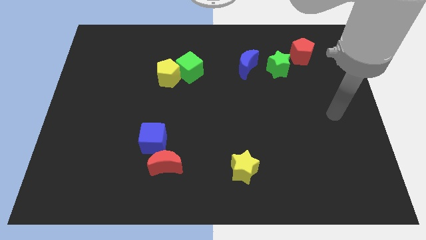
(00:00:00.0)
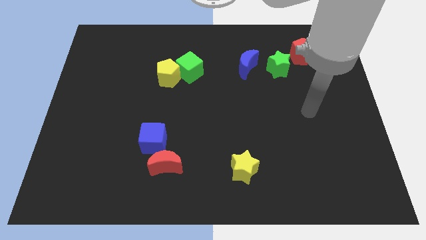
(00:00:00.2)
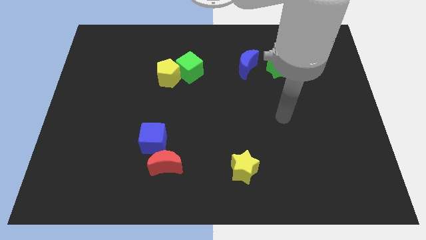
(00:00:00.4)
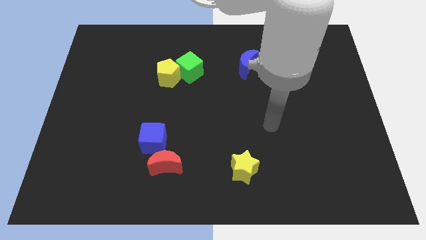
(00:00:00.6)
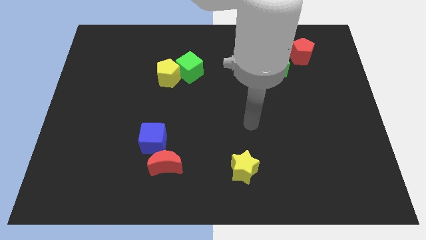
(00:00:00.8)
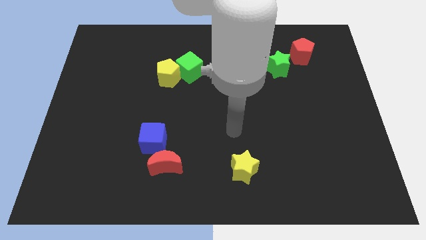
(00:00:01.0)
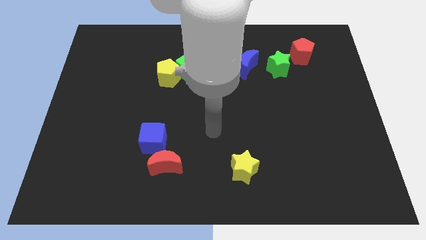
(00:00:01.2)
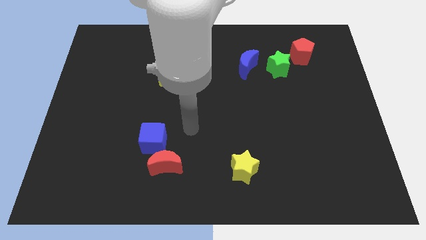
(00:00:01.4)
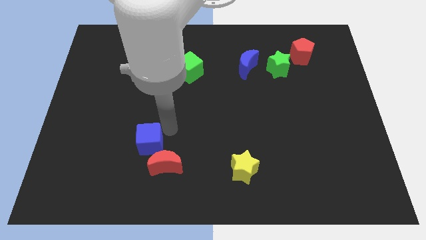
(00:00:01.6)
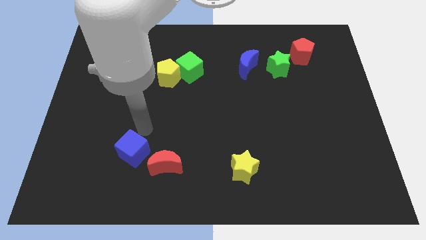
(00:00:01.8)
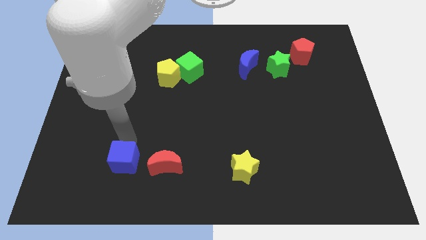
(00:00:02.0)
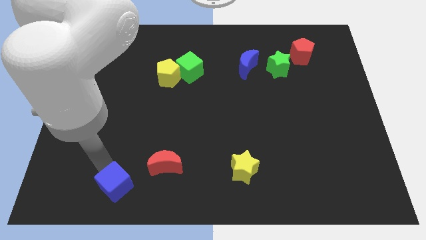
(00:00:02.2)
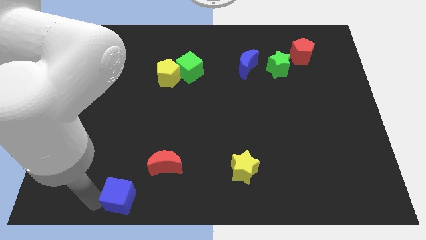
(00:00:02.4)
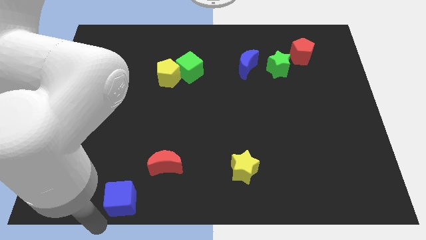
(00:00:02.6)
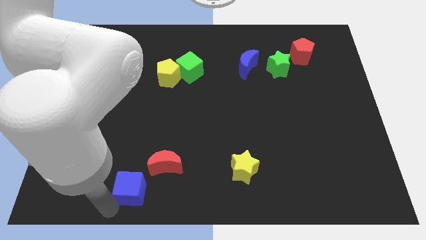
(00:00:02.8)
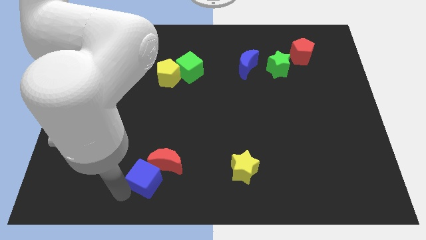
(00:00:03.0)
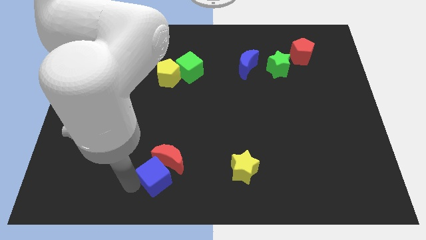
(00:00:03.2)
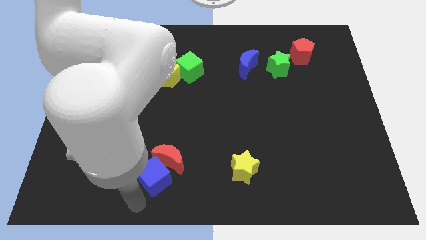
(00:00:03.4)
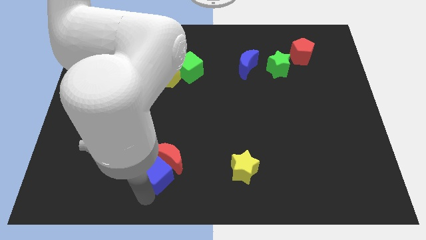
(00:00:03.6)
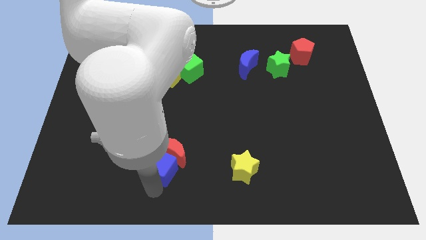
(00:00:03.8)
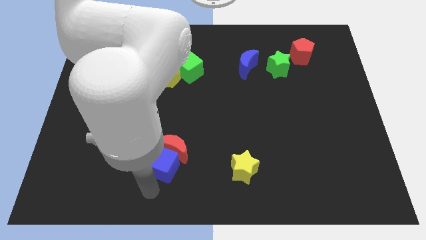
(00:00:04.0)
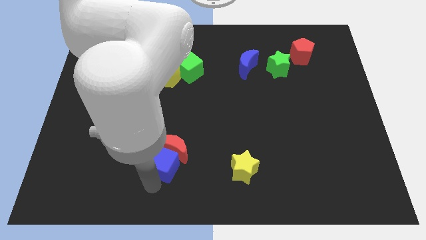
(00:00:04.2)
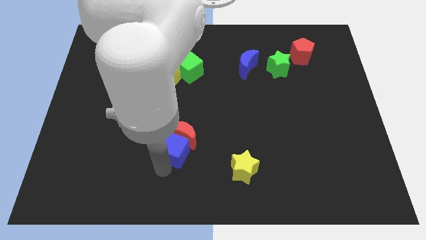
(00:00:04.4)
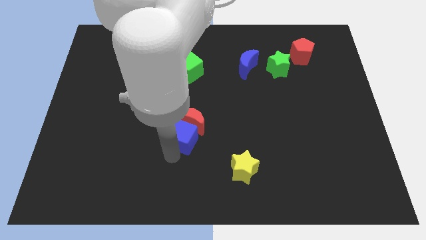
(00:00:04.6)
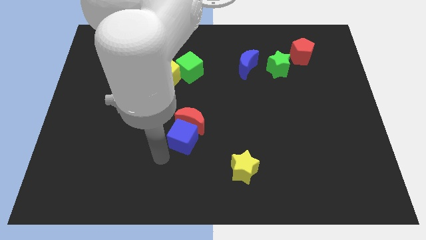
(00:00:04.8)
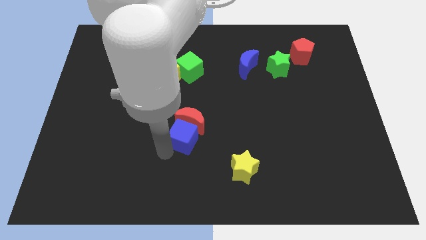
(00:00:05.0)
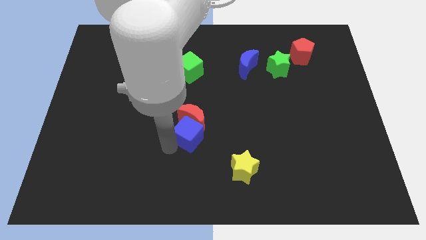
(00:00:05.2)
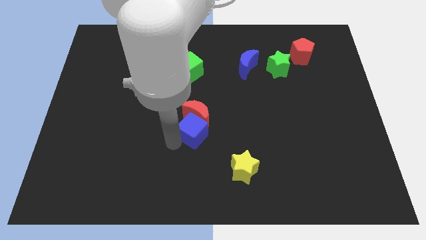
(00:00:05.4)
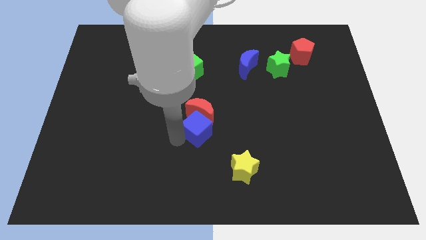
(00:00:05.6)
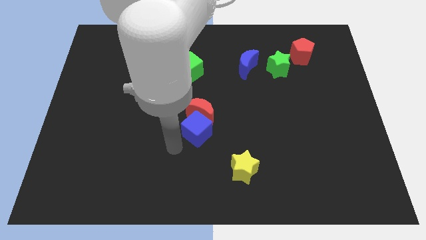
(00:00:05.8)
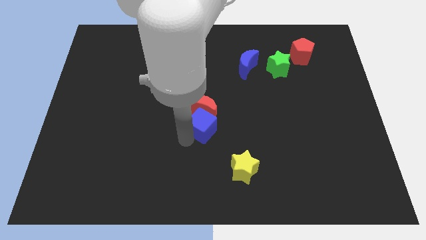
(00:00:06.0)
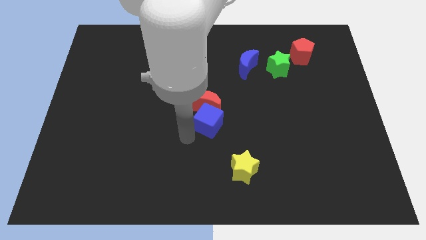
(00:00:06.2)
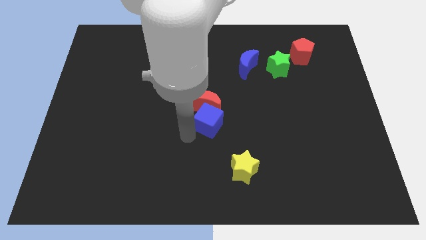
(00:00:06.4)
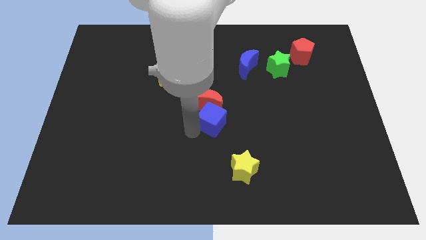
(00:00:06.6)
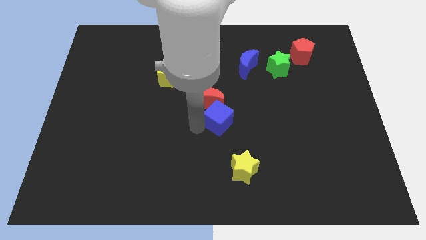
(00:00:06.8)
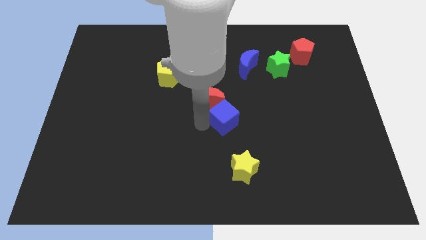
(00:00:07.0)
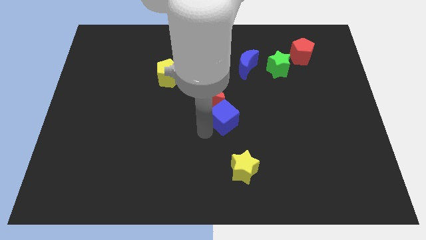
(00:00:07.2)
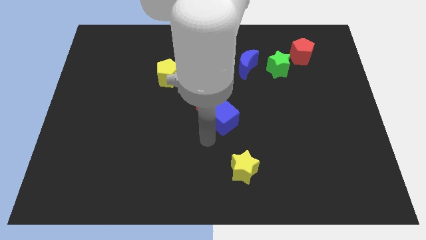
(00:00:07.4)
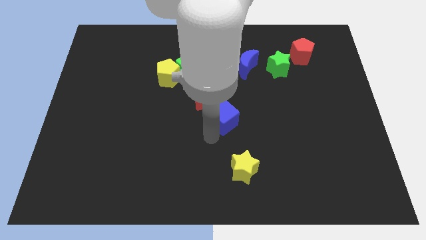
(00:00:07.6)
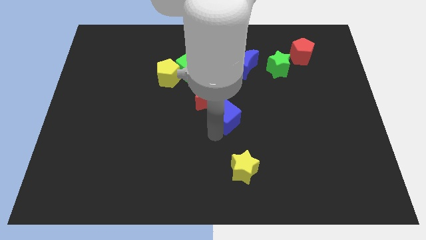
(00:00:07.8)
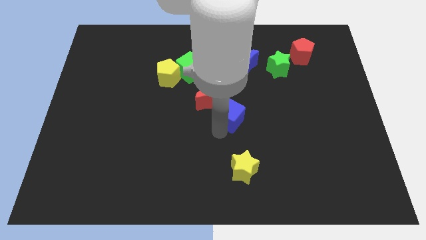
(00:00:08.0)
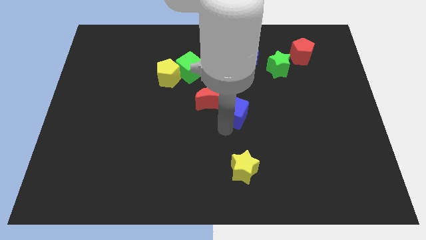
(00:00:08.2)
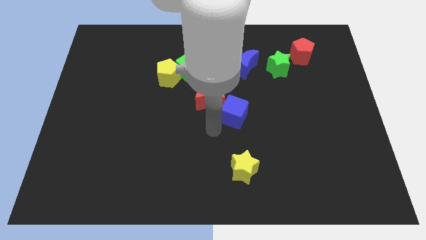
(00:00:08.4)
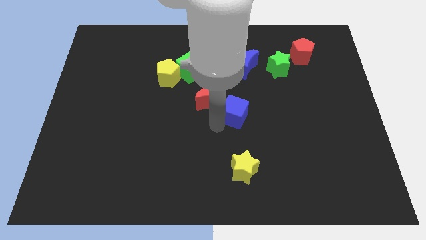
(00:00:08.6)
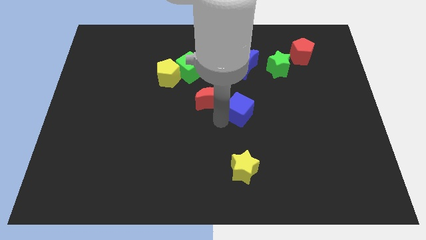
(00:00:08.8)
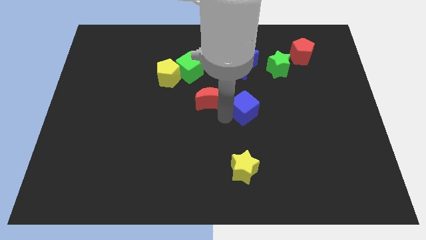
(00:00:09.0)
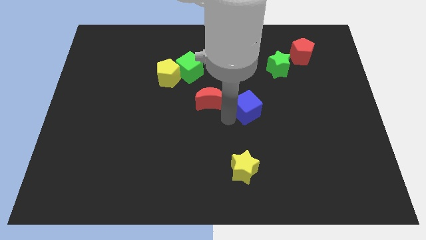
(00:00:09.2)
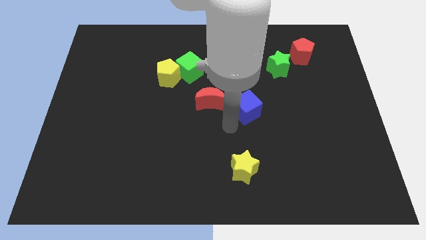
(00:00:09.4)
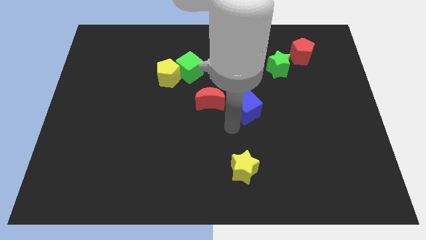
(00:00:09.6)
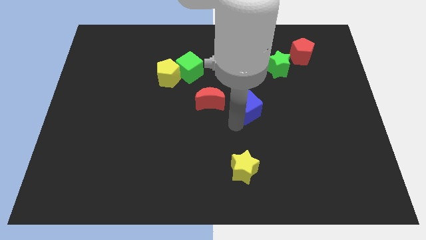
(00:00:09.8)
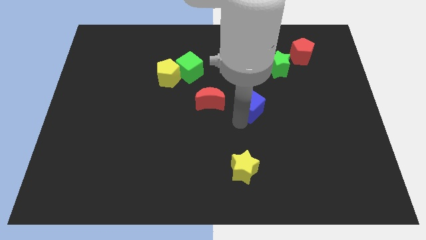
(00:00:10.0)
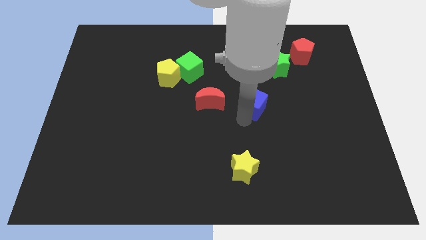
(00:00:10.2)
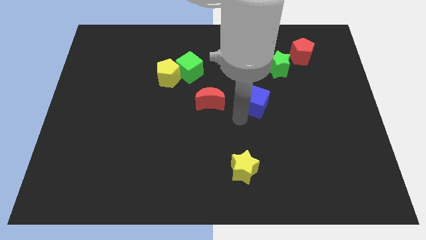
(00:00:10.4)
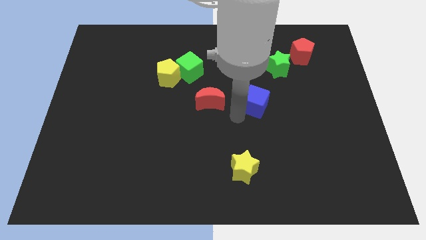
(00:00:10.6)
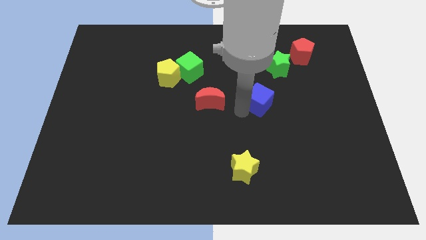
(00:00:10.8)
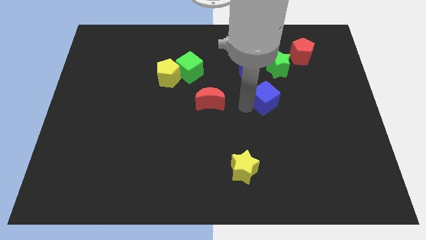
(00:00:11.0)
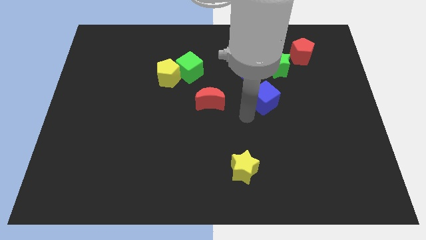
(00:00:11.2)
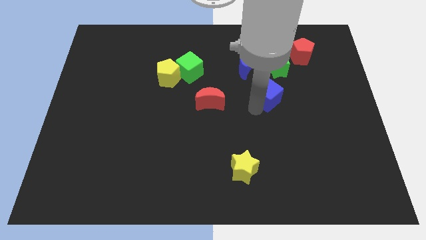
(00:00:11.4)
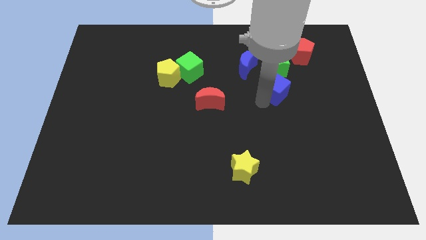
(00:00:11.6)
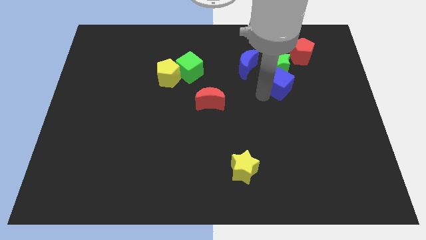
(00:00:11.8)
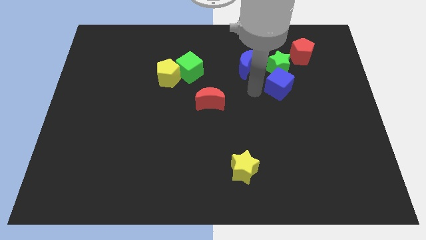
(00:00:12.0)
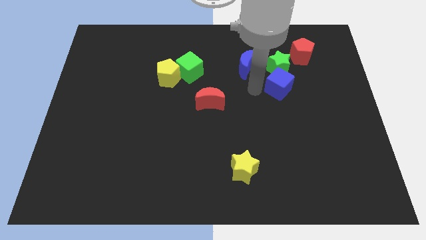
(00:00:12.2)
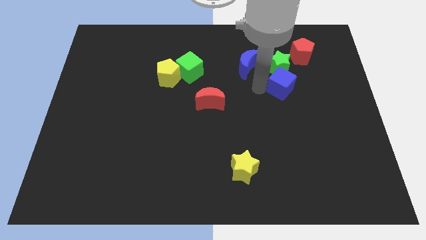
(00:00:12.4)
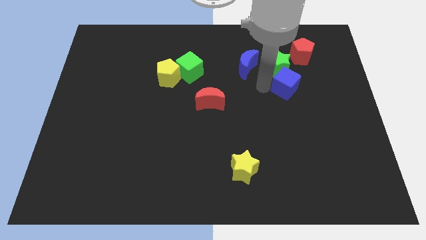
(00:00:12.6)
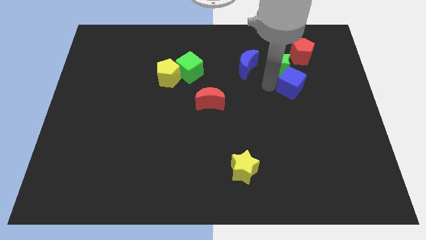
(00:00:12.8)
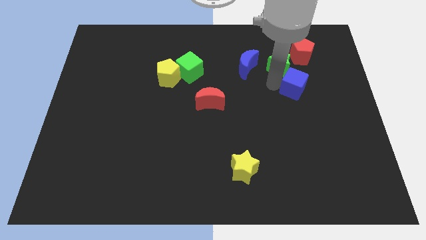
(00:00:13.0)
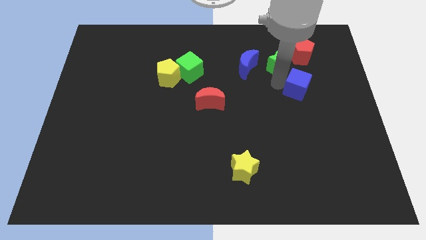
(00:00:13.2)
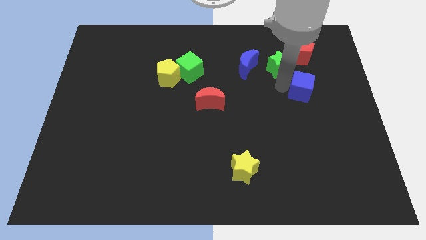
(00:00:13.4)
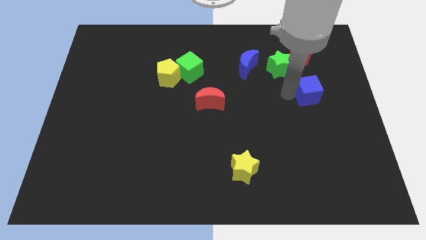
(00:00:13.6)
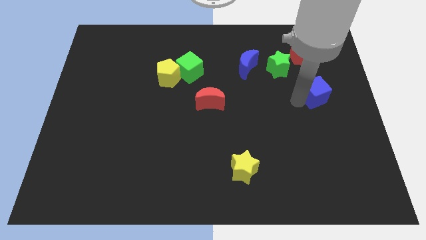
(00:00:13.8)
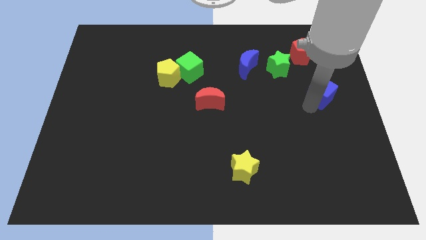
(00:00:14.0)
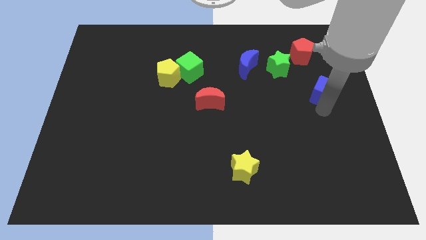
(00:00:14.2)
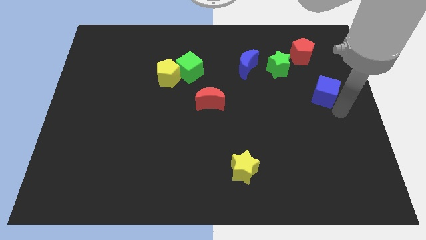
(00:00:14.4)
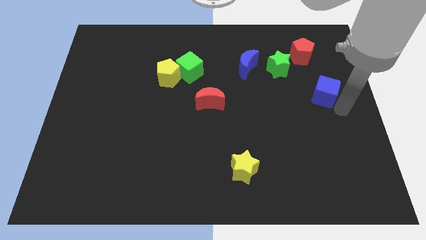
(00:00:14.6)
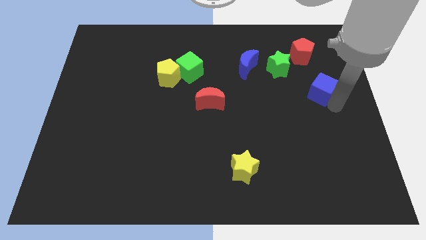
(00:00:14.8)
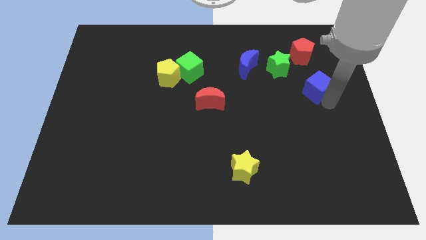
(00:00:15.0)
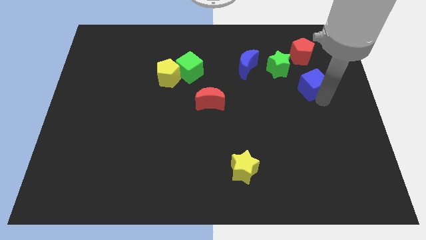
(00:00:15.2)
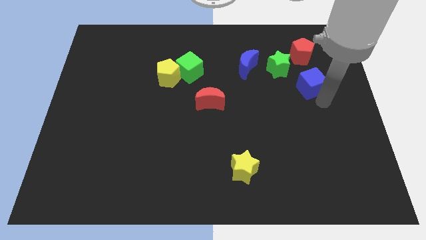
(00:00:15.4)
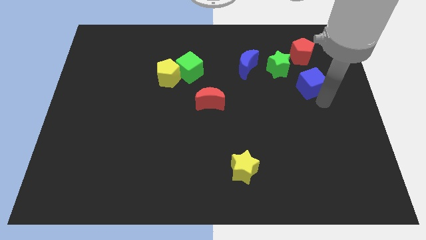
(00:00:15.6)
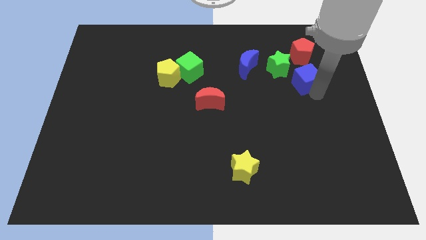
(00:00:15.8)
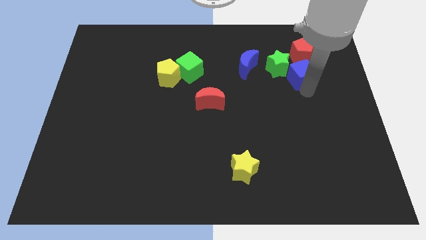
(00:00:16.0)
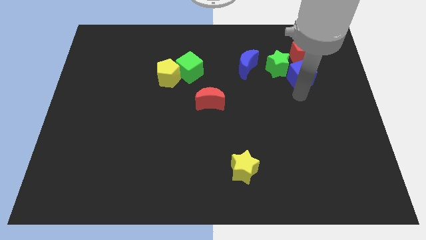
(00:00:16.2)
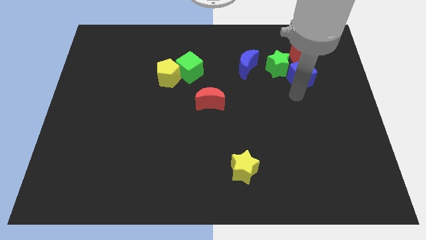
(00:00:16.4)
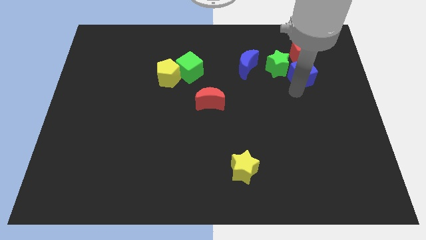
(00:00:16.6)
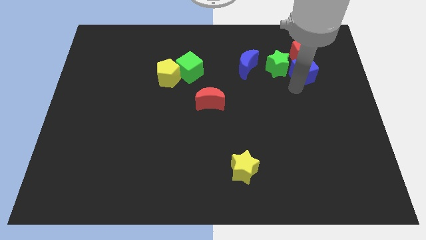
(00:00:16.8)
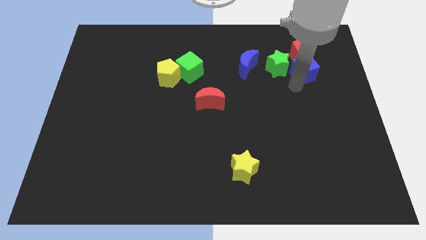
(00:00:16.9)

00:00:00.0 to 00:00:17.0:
move the blue cube to the red pentagon
